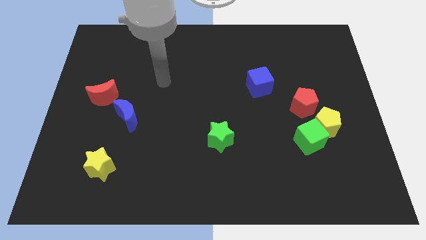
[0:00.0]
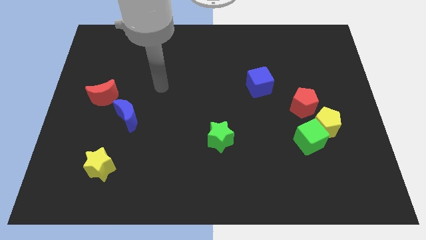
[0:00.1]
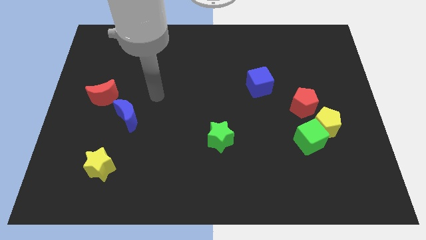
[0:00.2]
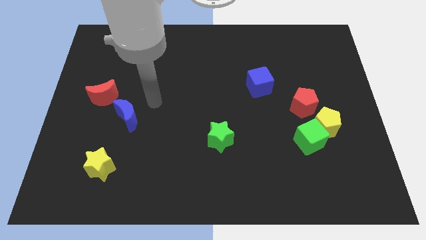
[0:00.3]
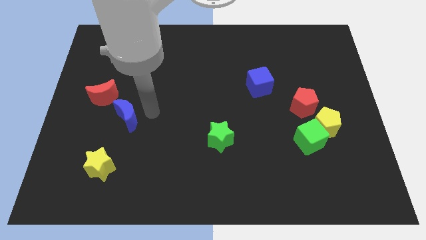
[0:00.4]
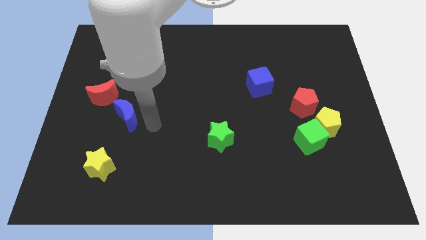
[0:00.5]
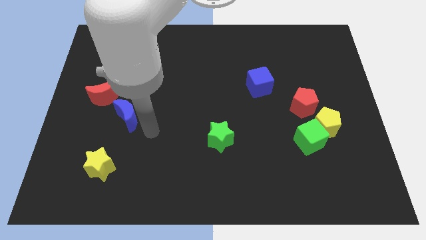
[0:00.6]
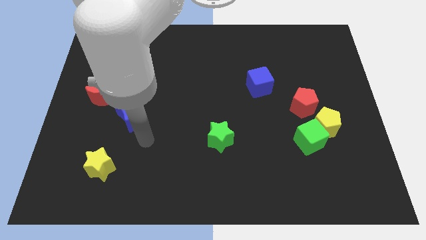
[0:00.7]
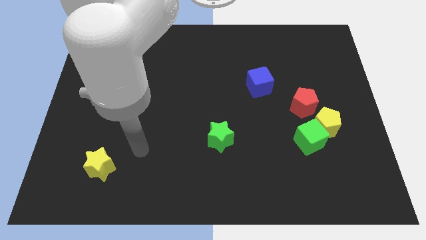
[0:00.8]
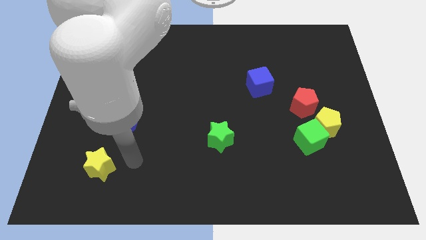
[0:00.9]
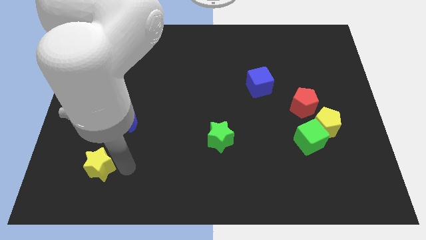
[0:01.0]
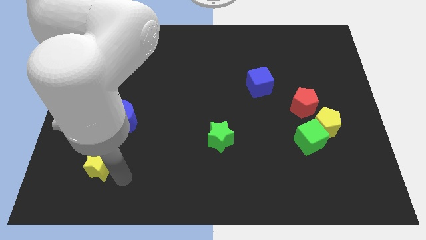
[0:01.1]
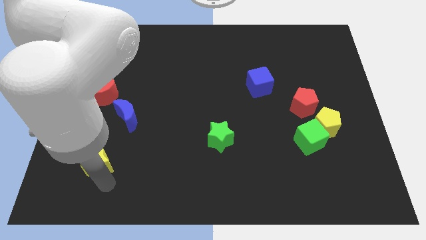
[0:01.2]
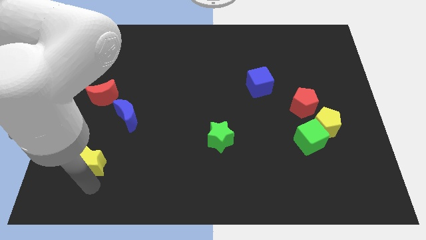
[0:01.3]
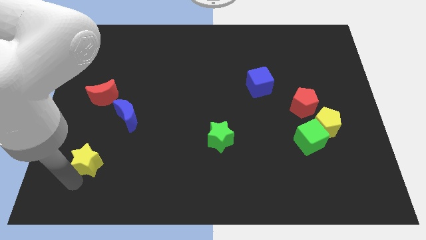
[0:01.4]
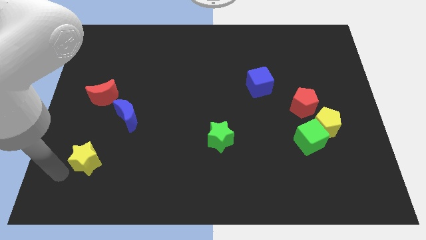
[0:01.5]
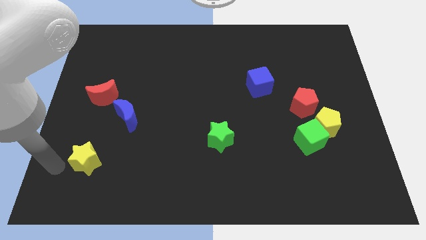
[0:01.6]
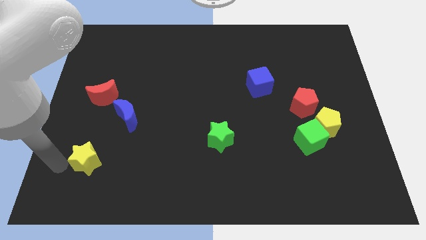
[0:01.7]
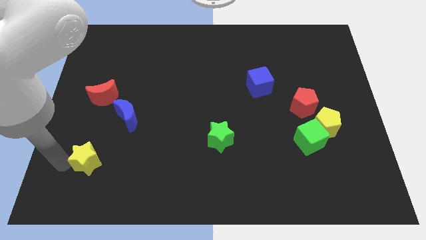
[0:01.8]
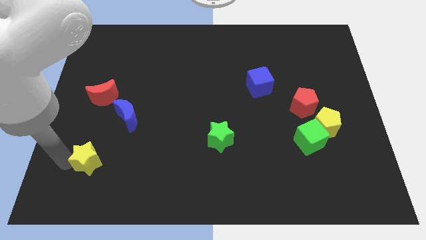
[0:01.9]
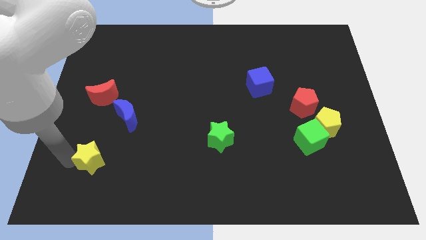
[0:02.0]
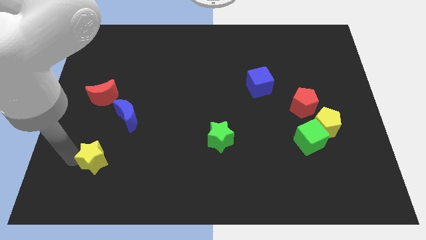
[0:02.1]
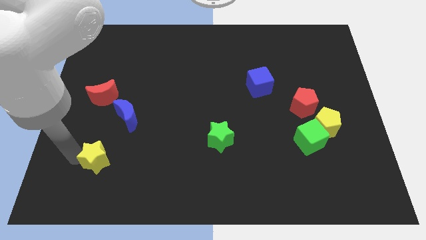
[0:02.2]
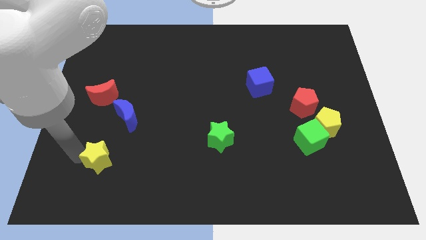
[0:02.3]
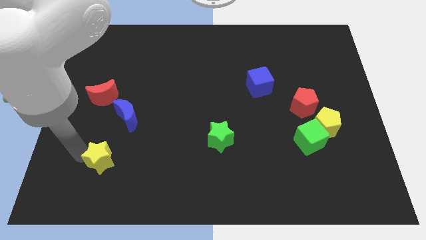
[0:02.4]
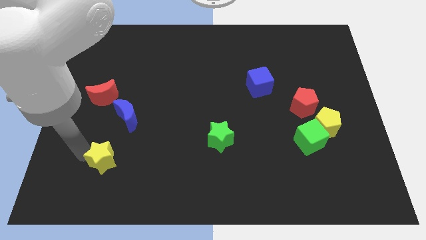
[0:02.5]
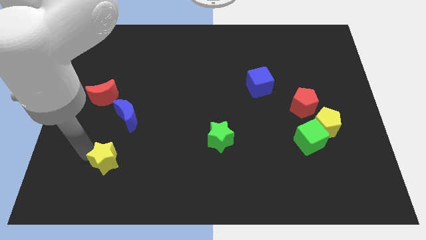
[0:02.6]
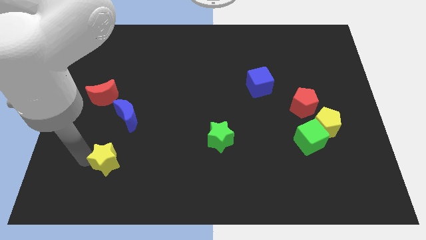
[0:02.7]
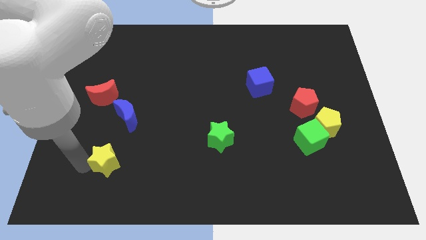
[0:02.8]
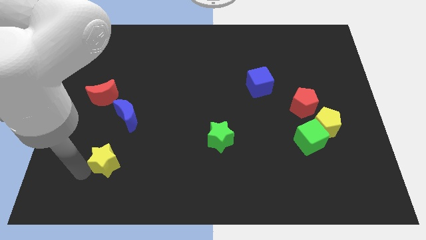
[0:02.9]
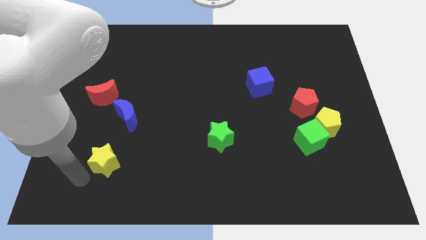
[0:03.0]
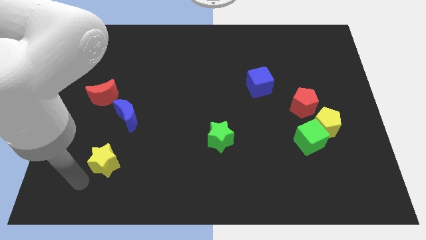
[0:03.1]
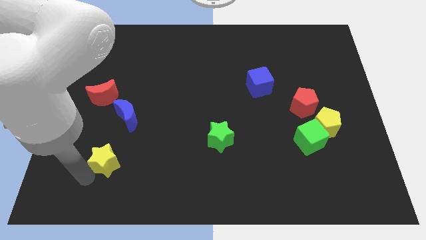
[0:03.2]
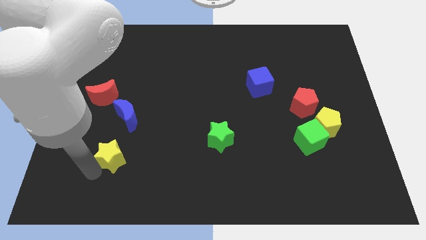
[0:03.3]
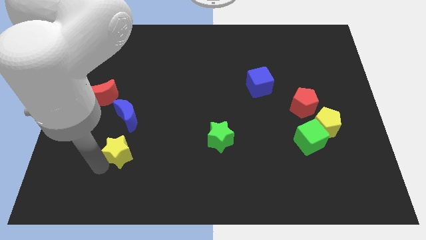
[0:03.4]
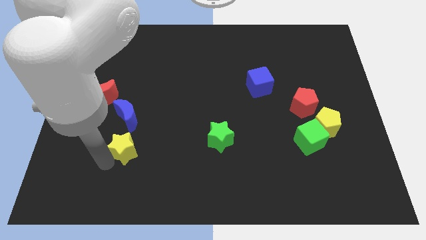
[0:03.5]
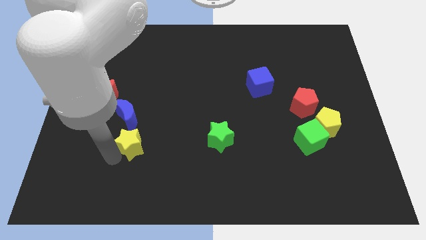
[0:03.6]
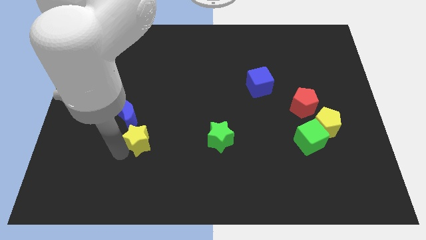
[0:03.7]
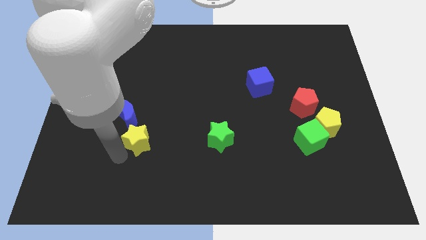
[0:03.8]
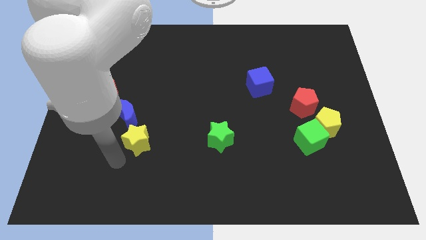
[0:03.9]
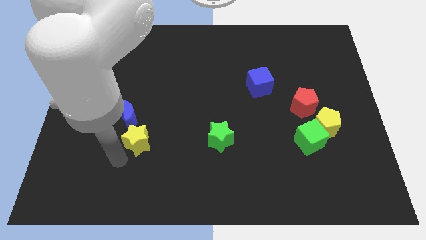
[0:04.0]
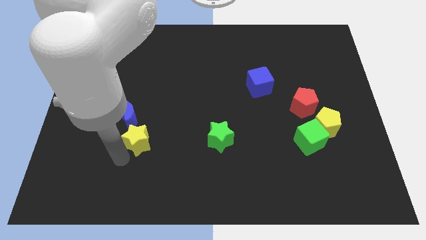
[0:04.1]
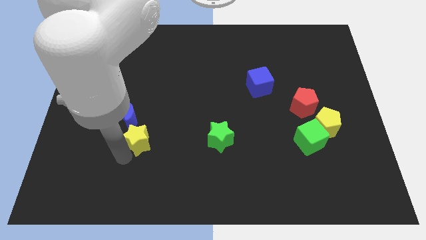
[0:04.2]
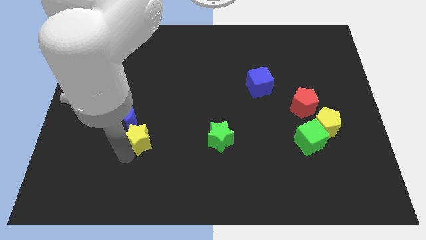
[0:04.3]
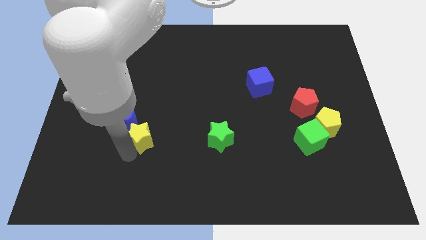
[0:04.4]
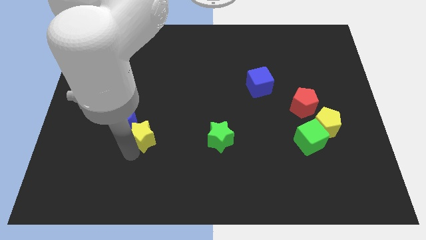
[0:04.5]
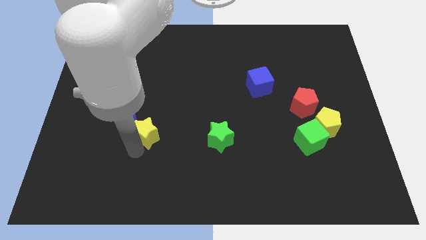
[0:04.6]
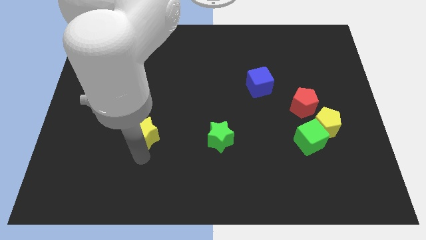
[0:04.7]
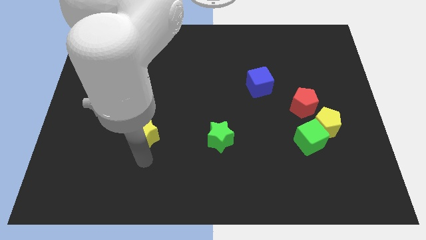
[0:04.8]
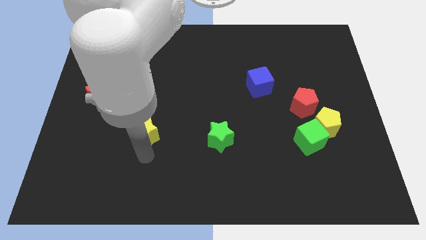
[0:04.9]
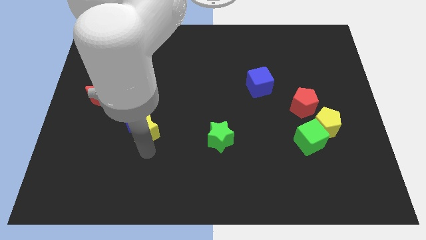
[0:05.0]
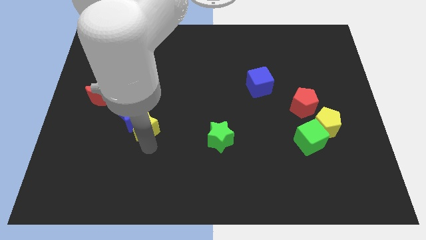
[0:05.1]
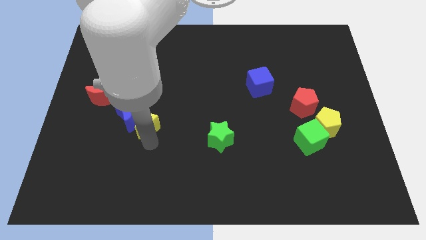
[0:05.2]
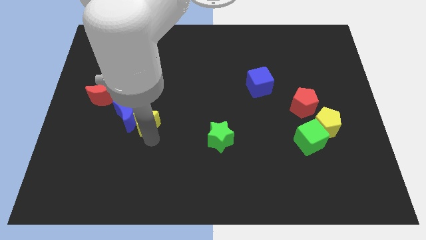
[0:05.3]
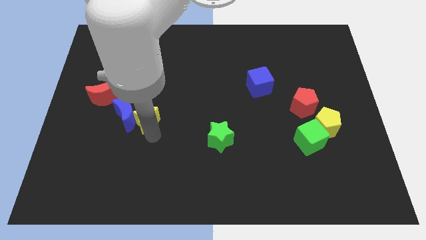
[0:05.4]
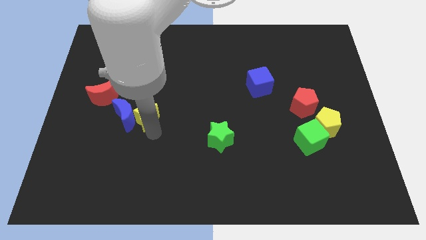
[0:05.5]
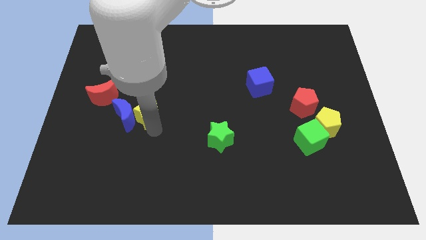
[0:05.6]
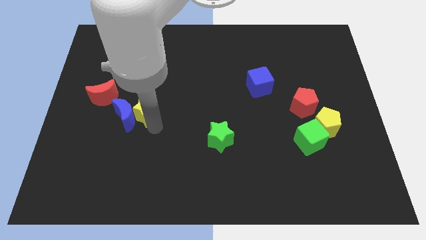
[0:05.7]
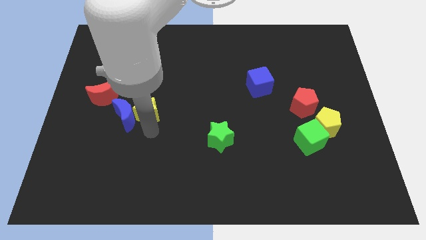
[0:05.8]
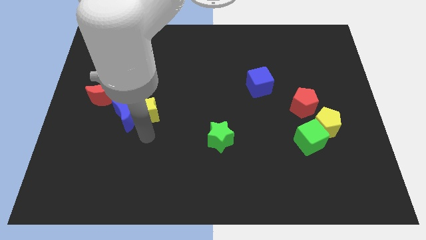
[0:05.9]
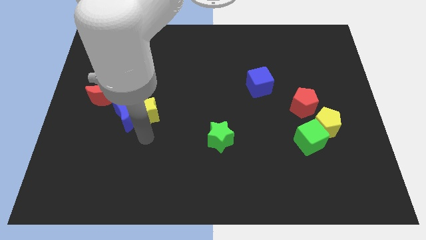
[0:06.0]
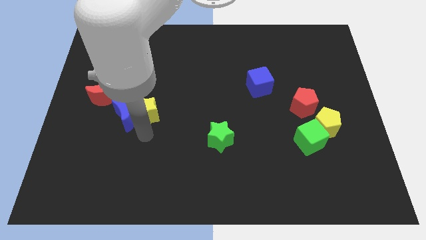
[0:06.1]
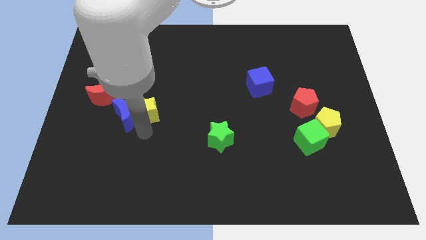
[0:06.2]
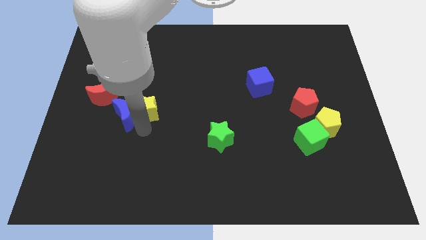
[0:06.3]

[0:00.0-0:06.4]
put the yellow star to the right of the red moon
